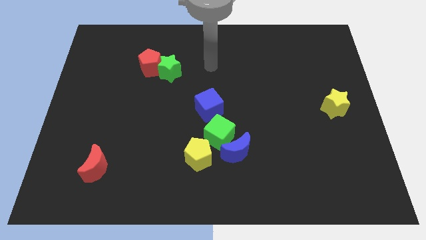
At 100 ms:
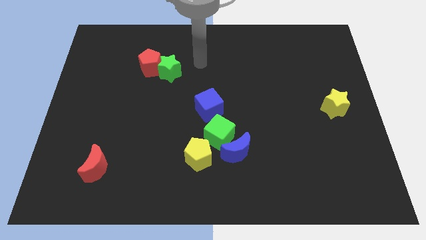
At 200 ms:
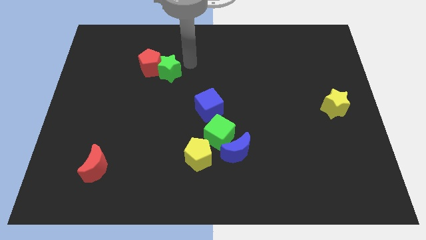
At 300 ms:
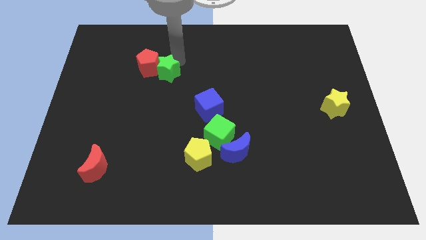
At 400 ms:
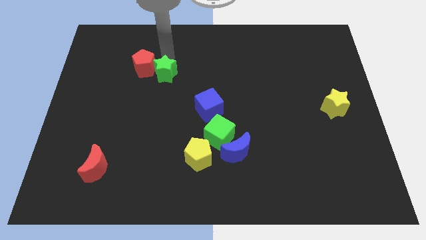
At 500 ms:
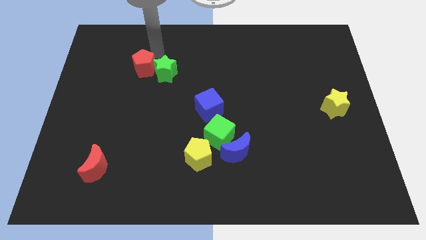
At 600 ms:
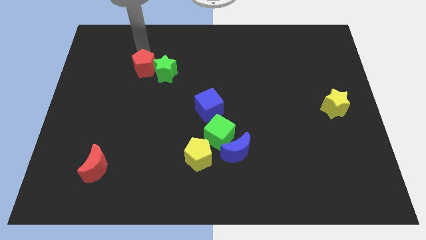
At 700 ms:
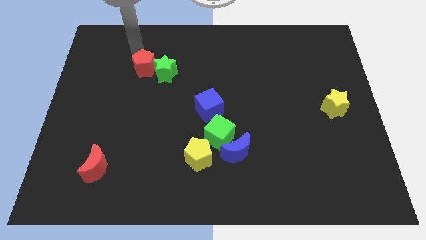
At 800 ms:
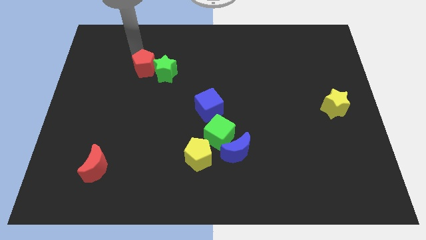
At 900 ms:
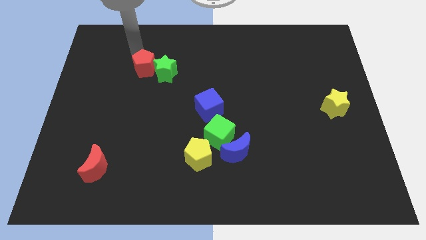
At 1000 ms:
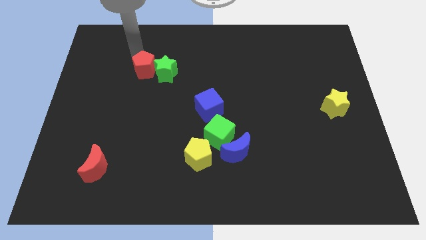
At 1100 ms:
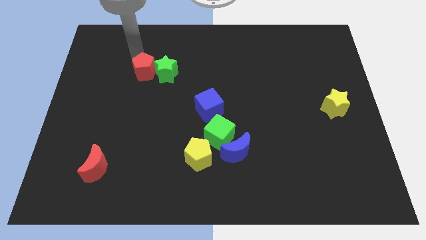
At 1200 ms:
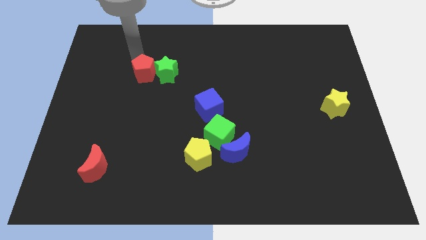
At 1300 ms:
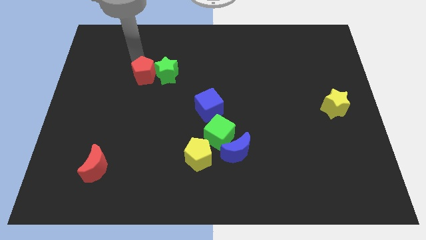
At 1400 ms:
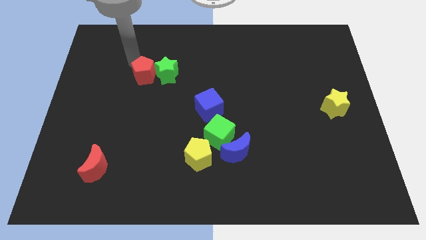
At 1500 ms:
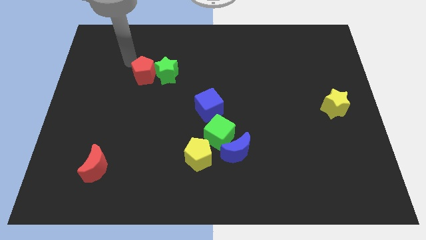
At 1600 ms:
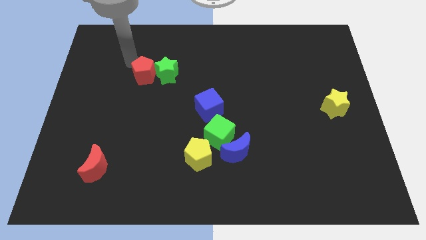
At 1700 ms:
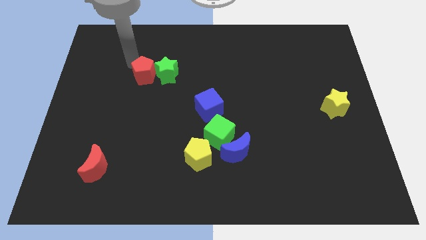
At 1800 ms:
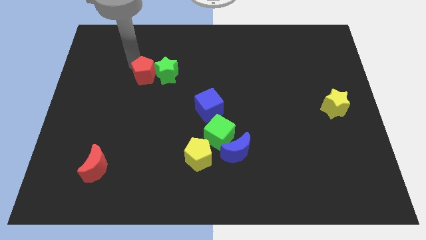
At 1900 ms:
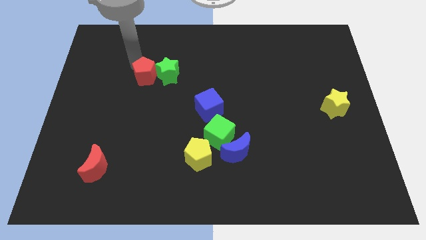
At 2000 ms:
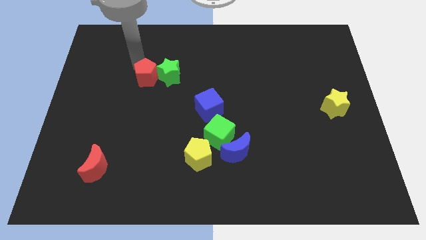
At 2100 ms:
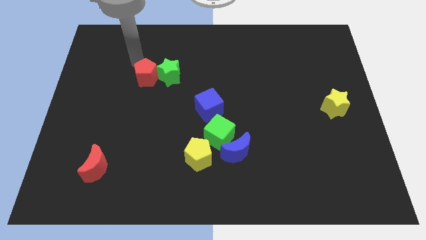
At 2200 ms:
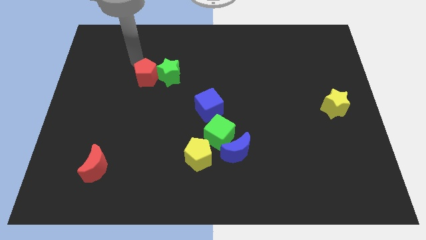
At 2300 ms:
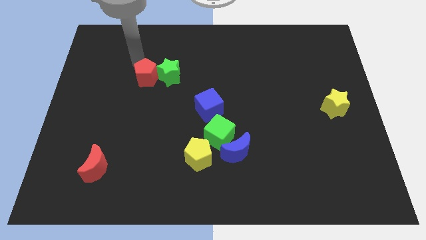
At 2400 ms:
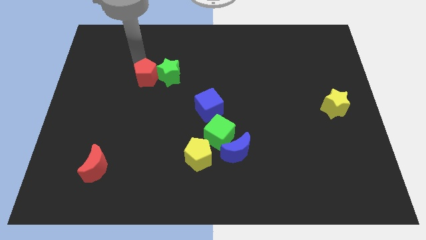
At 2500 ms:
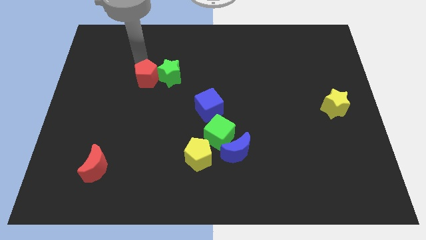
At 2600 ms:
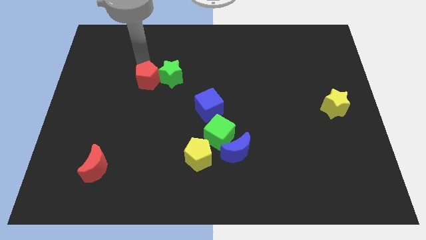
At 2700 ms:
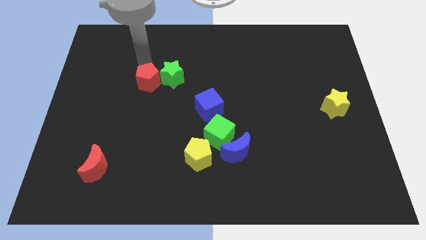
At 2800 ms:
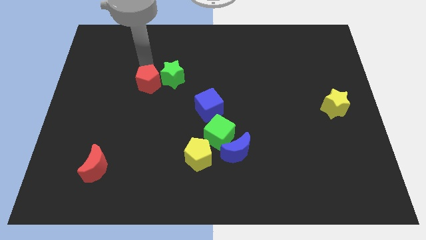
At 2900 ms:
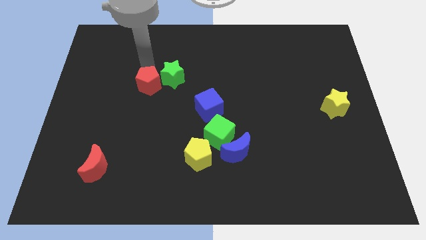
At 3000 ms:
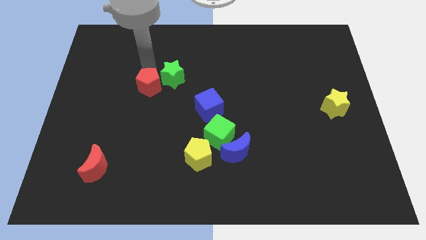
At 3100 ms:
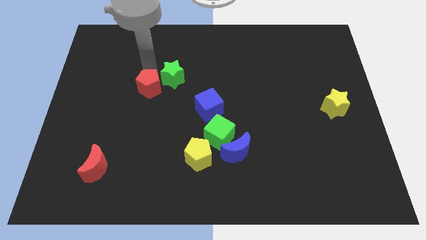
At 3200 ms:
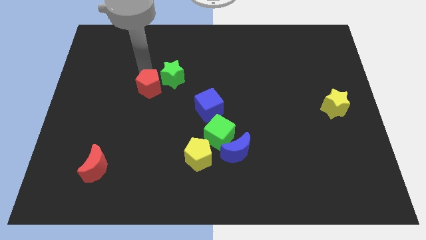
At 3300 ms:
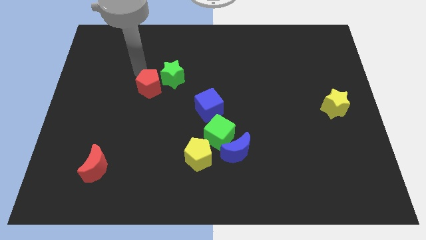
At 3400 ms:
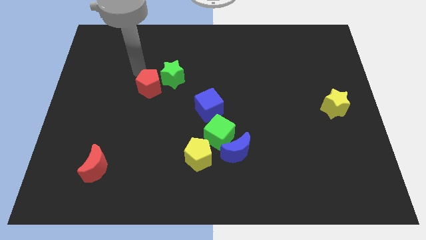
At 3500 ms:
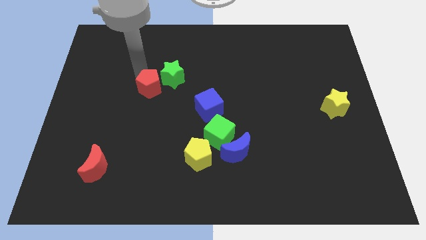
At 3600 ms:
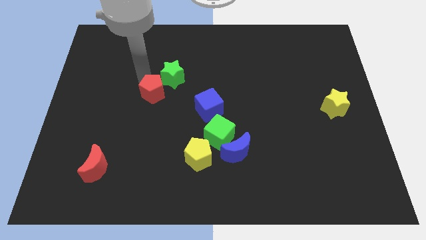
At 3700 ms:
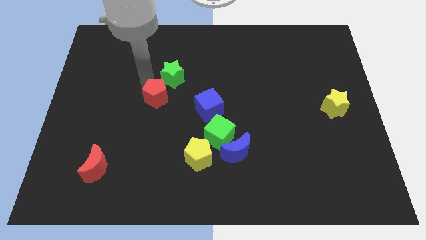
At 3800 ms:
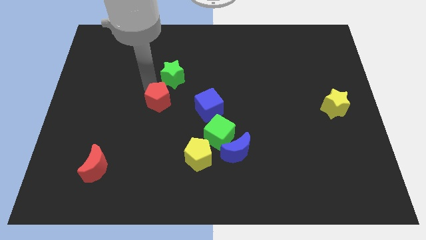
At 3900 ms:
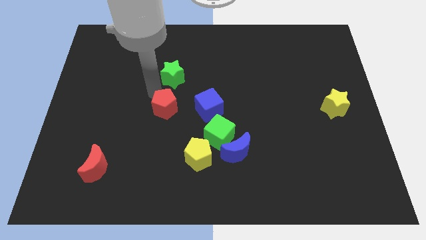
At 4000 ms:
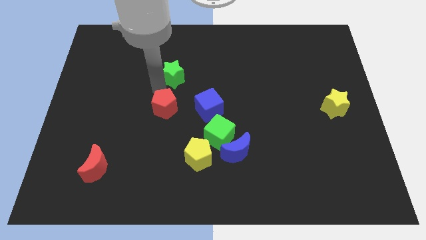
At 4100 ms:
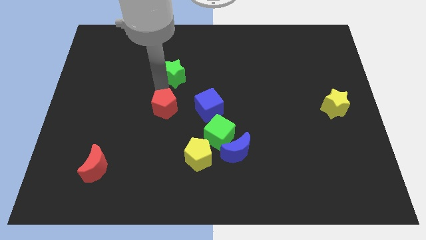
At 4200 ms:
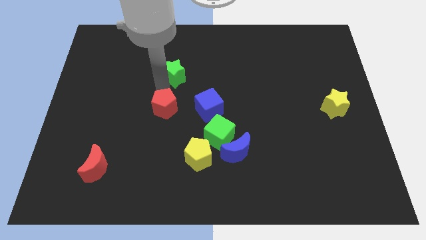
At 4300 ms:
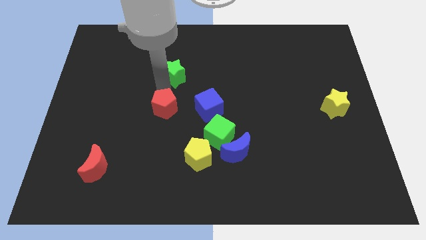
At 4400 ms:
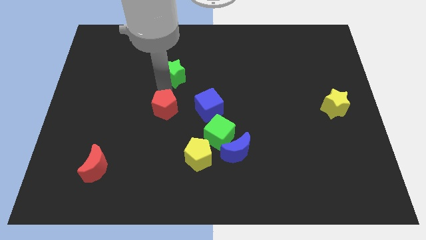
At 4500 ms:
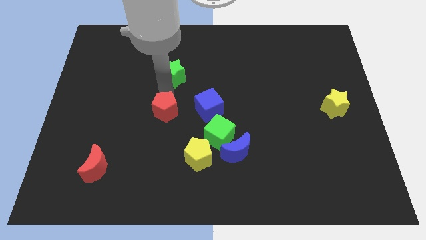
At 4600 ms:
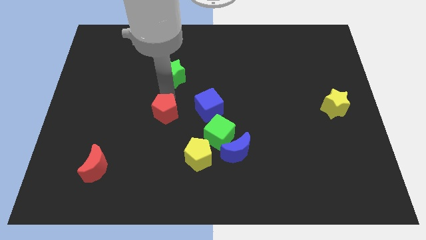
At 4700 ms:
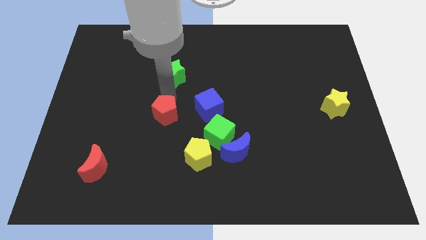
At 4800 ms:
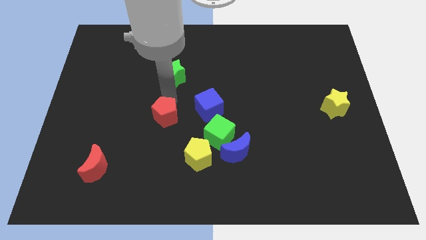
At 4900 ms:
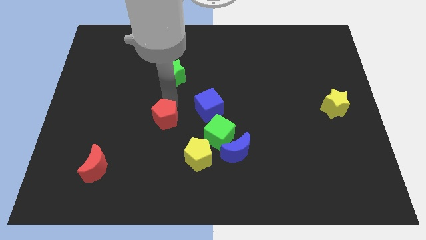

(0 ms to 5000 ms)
put the red pentagon to the top left side of the yellow pentagon

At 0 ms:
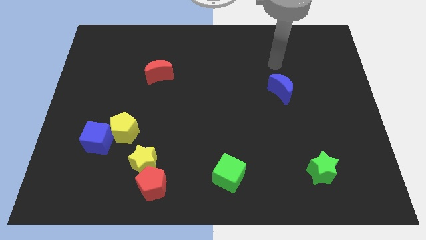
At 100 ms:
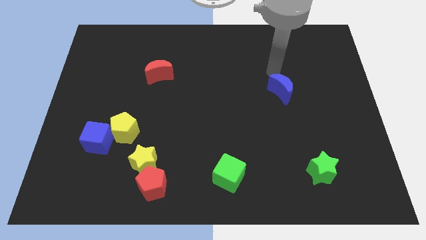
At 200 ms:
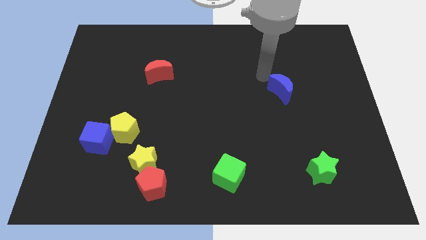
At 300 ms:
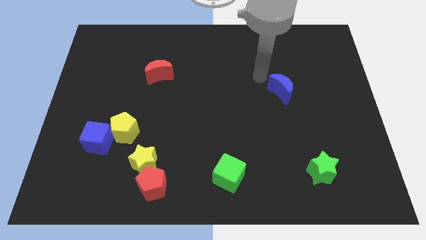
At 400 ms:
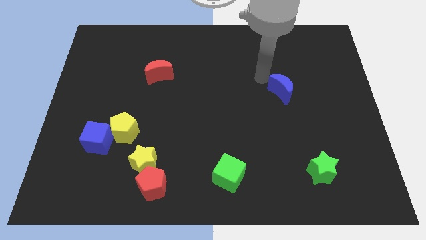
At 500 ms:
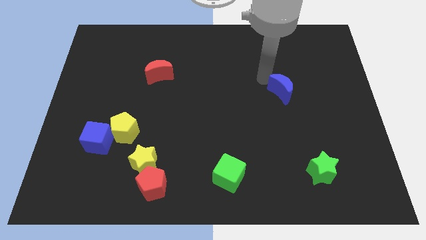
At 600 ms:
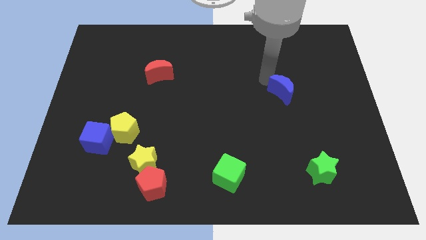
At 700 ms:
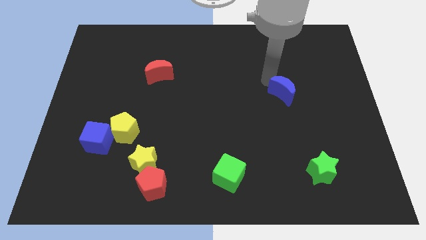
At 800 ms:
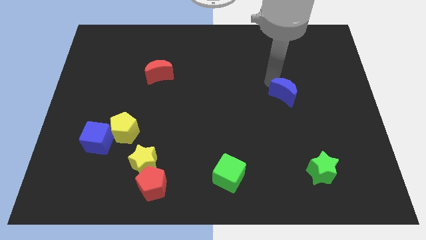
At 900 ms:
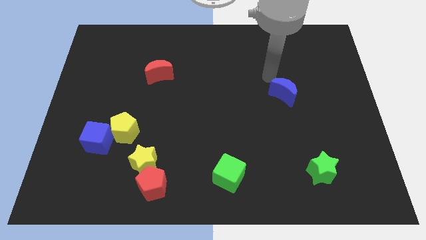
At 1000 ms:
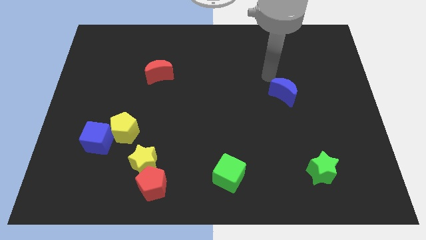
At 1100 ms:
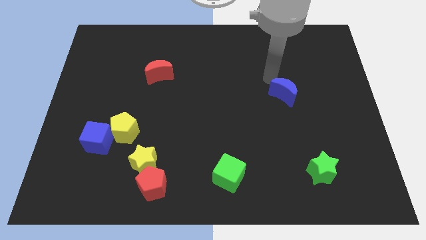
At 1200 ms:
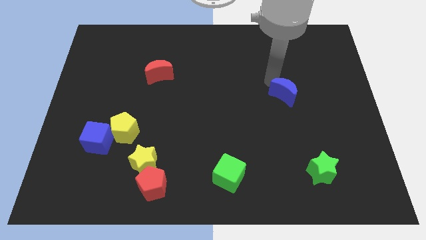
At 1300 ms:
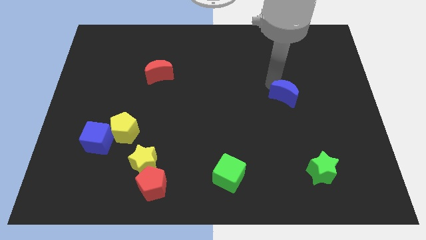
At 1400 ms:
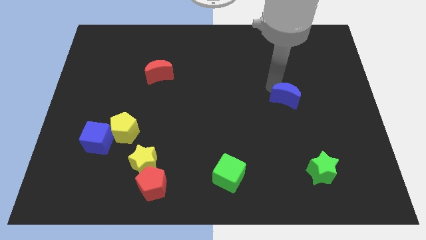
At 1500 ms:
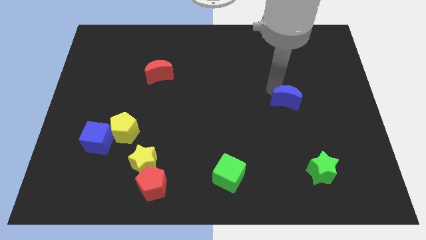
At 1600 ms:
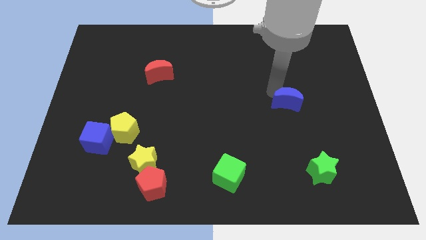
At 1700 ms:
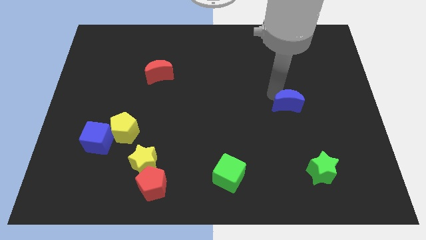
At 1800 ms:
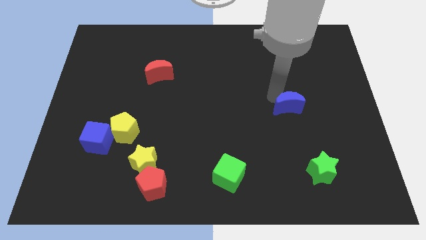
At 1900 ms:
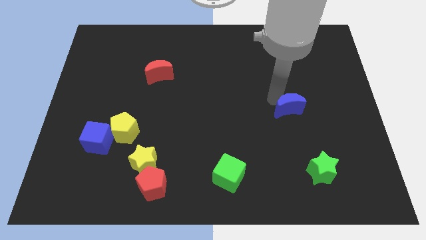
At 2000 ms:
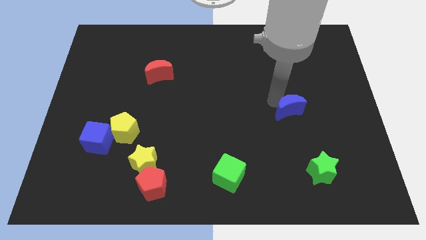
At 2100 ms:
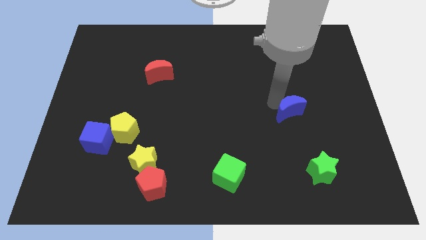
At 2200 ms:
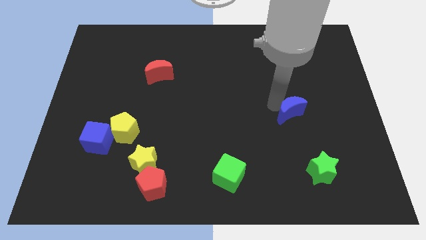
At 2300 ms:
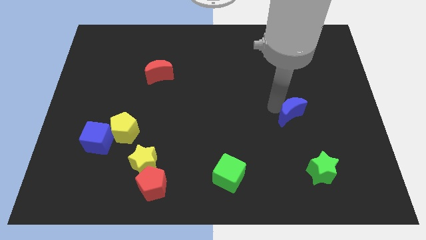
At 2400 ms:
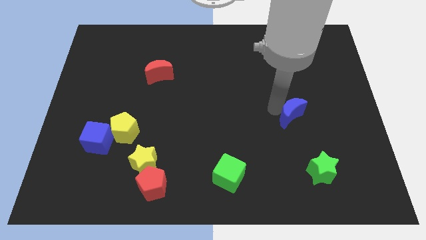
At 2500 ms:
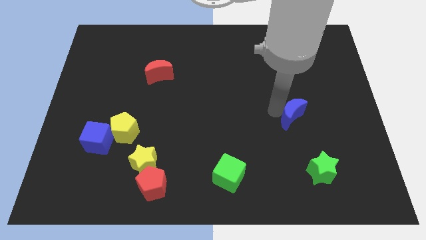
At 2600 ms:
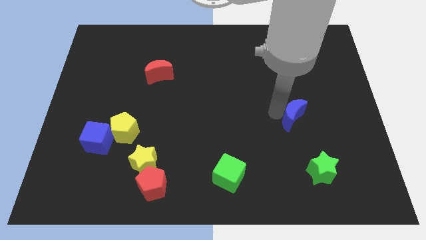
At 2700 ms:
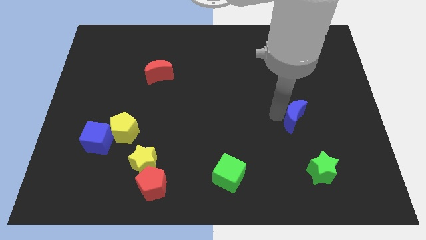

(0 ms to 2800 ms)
put the blue moon to the top side of the green star

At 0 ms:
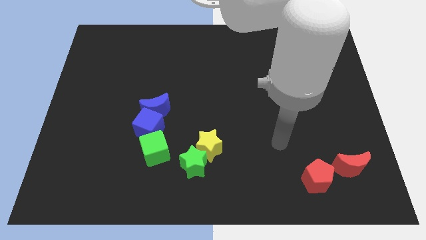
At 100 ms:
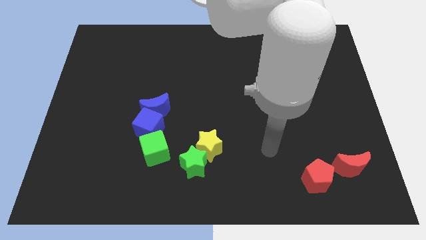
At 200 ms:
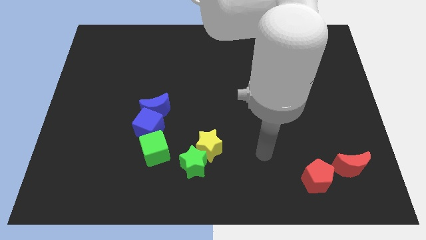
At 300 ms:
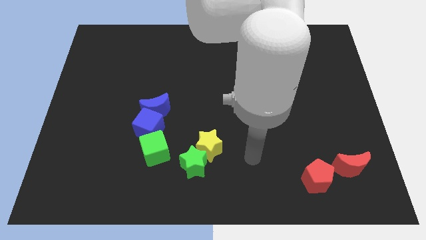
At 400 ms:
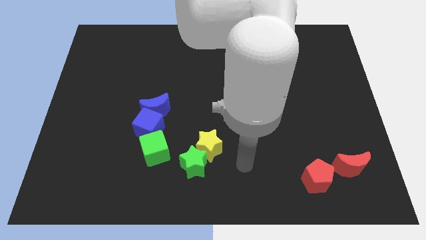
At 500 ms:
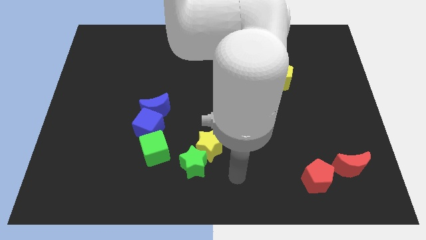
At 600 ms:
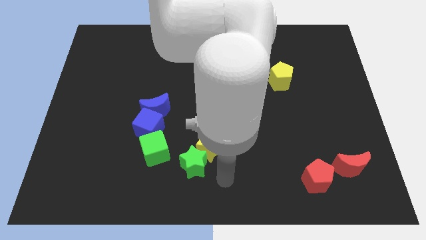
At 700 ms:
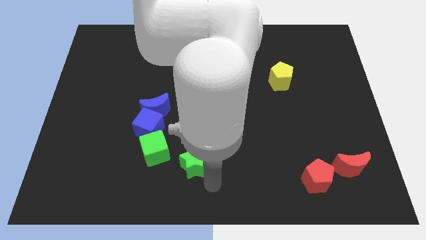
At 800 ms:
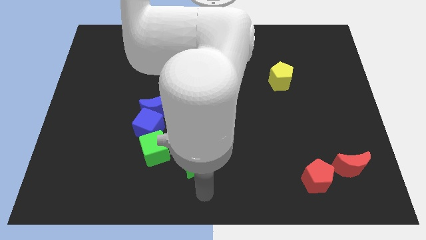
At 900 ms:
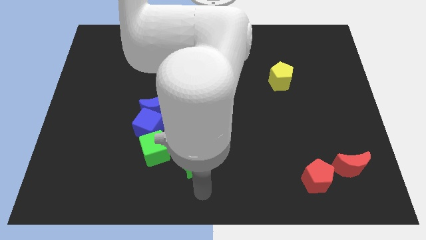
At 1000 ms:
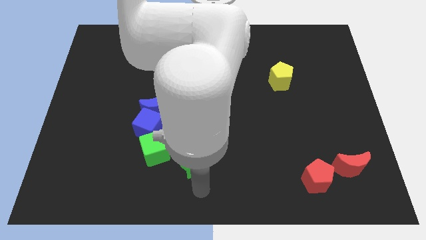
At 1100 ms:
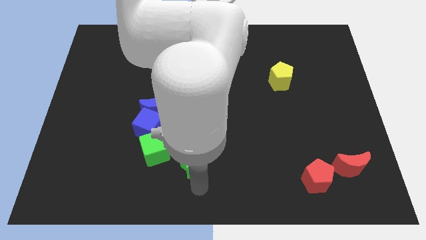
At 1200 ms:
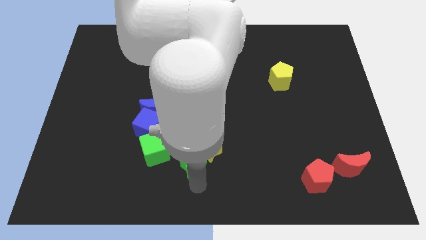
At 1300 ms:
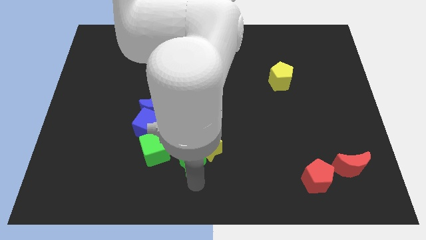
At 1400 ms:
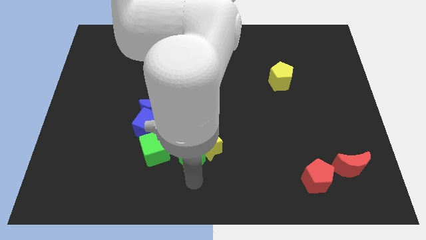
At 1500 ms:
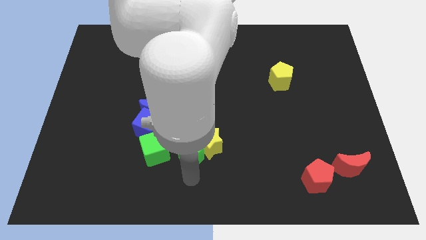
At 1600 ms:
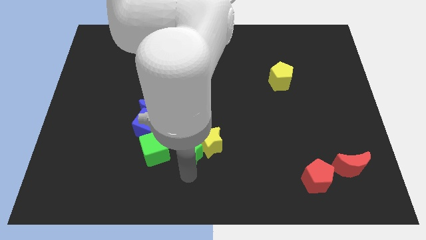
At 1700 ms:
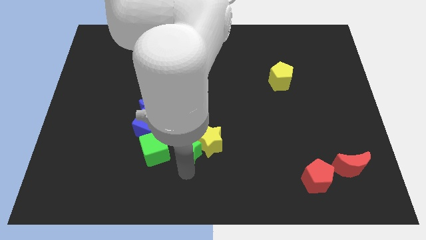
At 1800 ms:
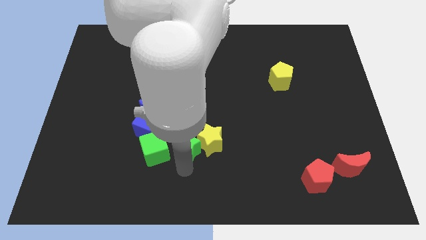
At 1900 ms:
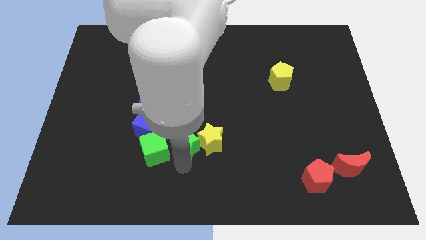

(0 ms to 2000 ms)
slide the green star diagonally down and to the right of the blue moon
